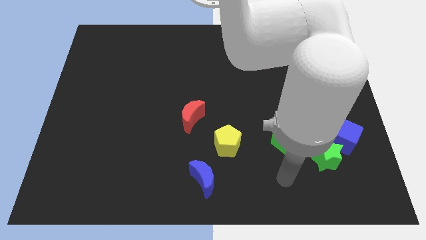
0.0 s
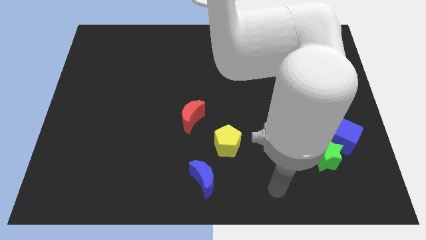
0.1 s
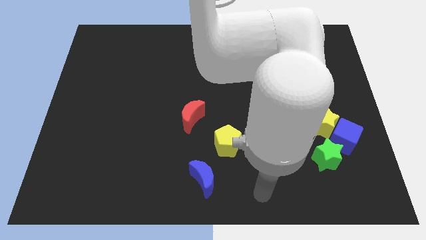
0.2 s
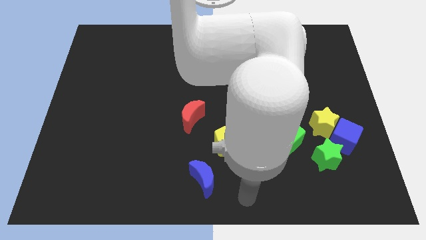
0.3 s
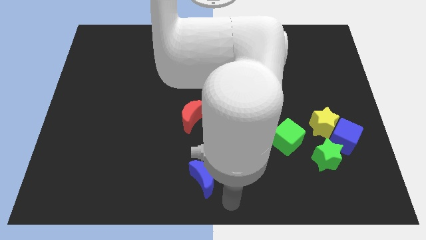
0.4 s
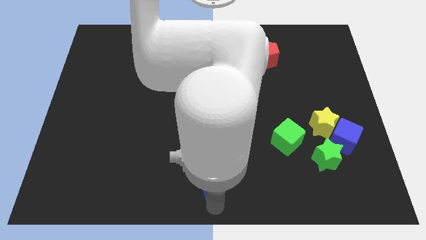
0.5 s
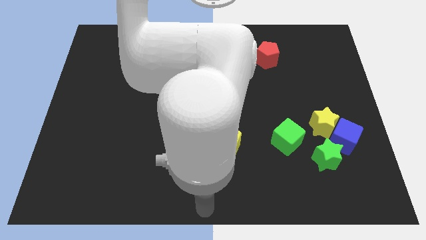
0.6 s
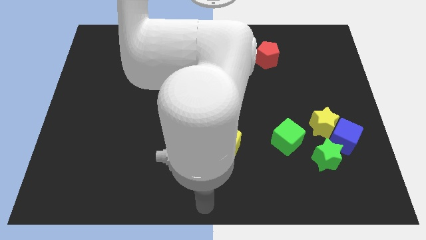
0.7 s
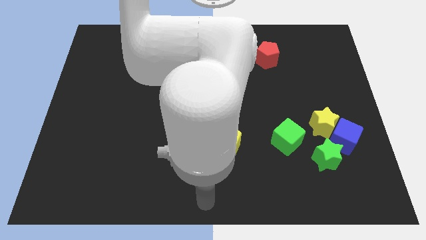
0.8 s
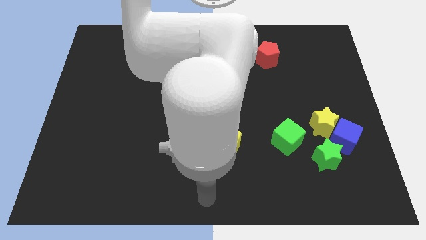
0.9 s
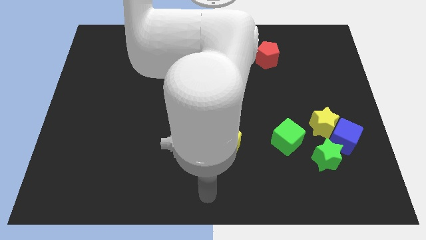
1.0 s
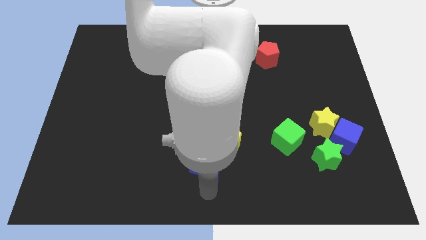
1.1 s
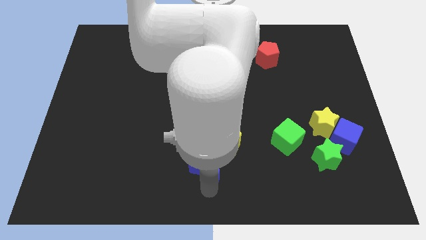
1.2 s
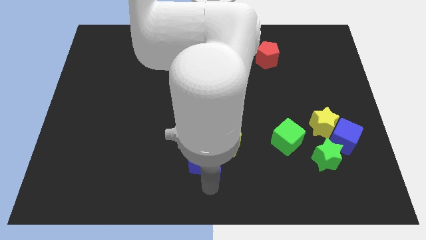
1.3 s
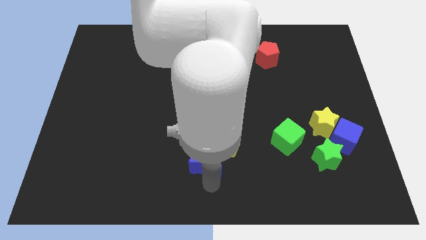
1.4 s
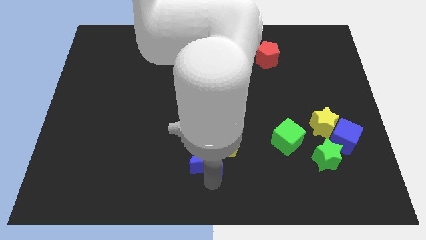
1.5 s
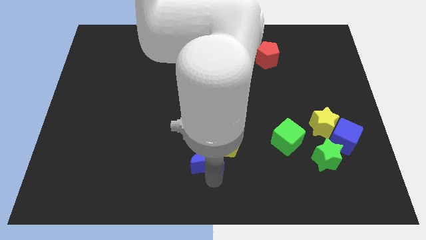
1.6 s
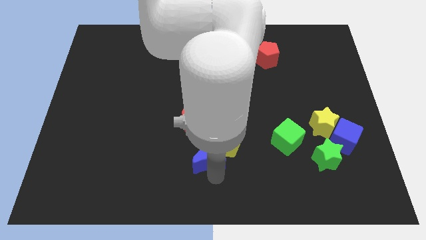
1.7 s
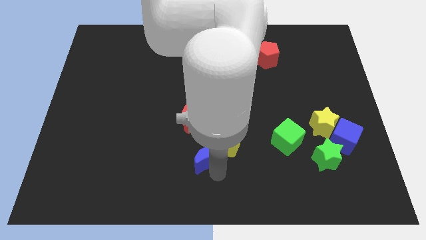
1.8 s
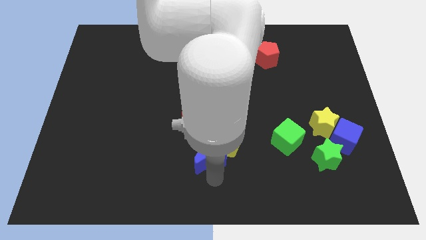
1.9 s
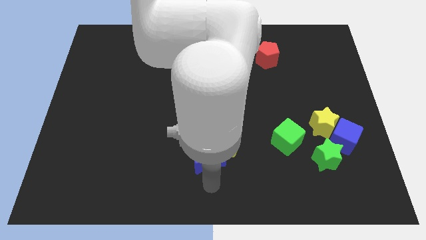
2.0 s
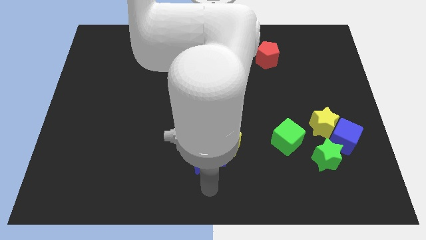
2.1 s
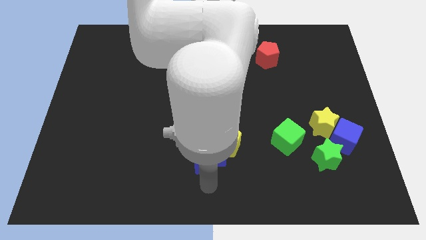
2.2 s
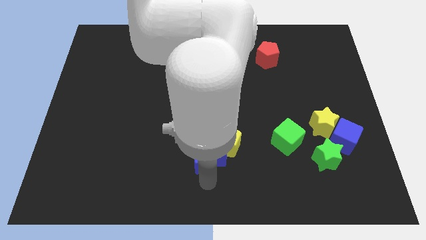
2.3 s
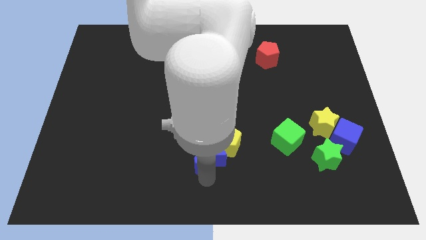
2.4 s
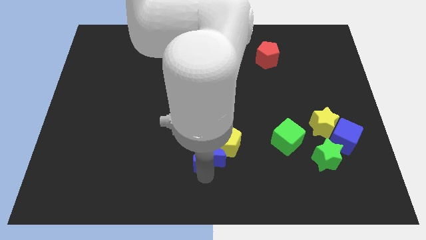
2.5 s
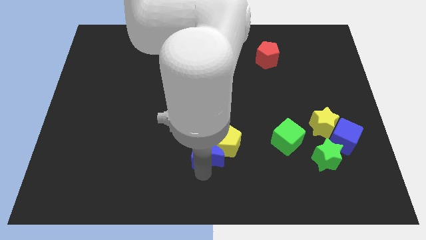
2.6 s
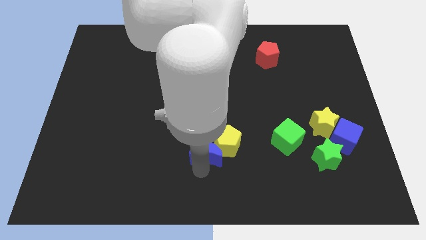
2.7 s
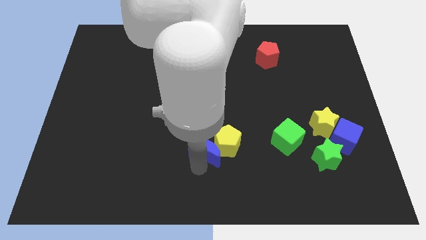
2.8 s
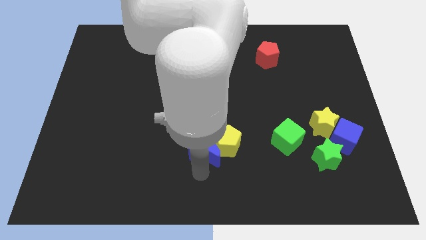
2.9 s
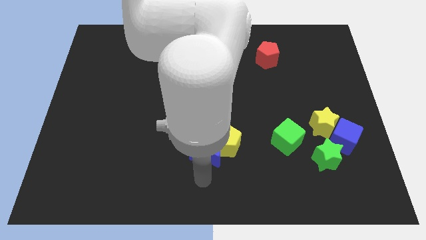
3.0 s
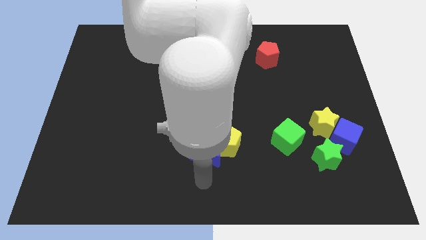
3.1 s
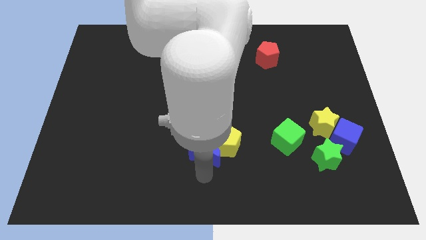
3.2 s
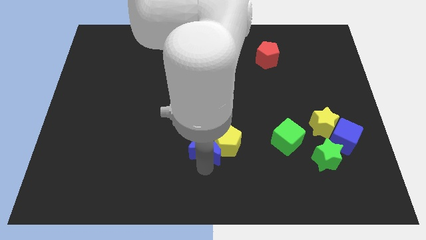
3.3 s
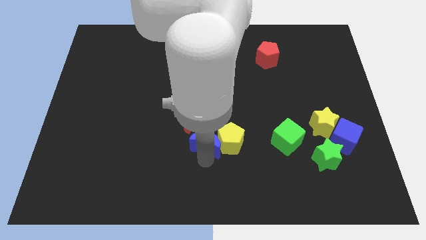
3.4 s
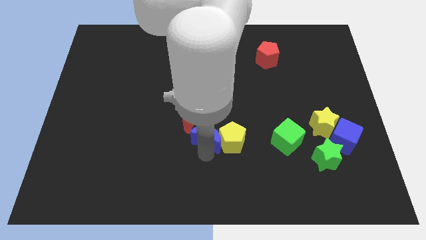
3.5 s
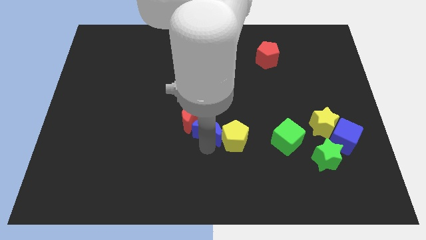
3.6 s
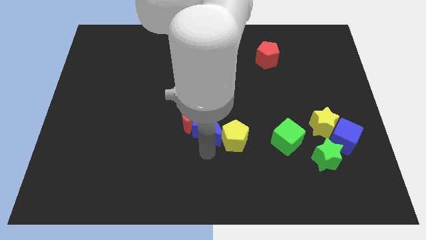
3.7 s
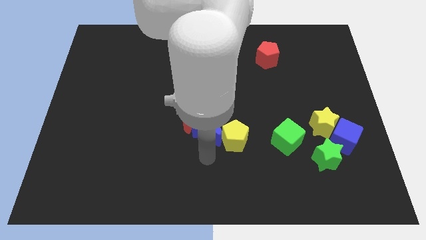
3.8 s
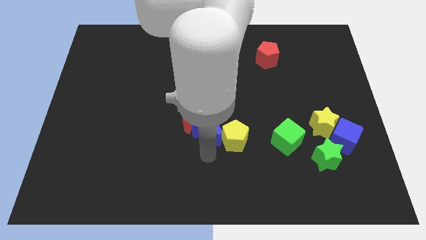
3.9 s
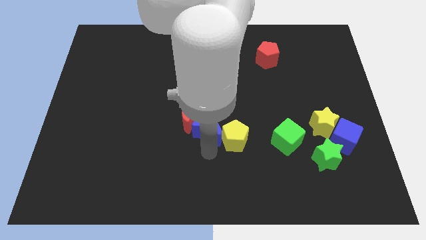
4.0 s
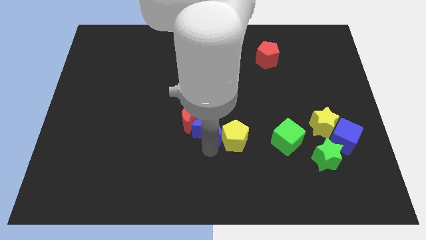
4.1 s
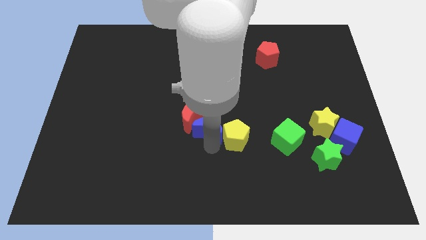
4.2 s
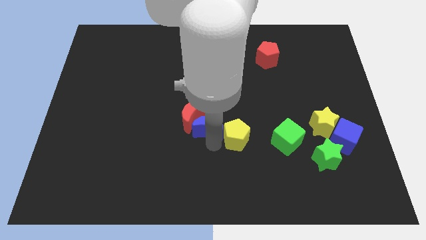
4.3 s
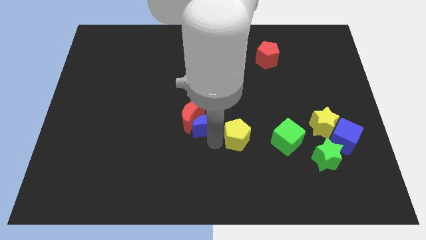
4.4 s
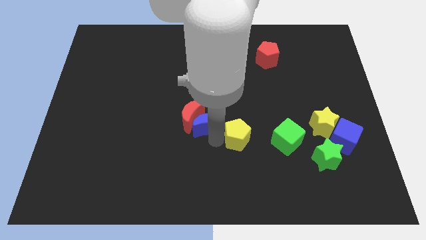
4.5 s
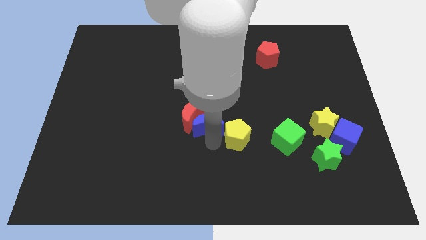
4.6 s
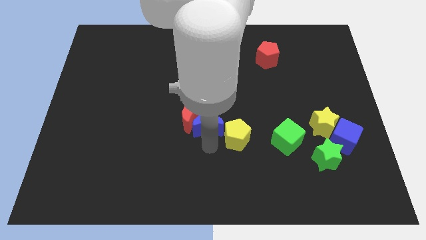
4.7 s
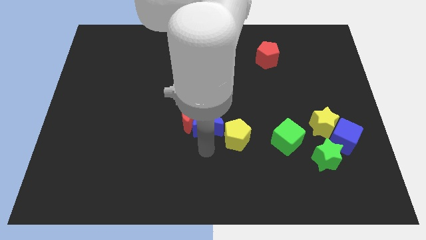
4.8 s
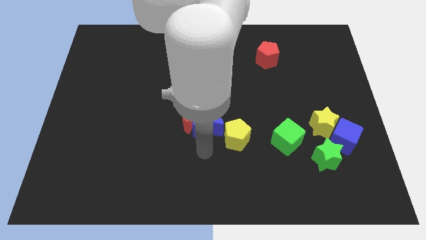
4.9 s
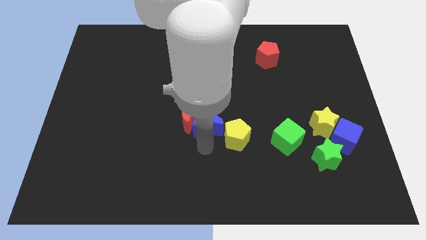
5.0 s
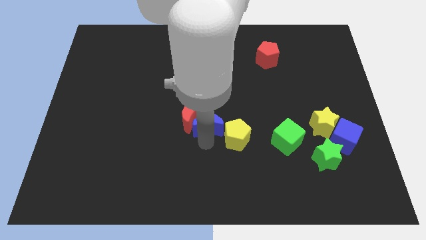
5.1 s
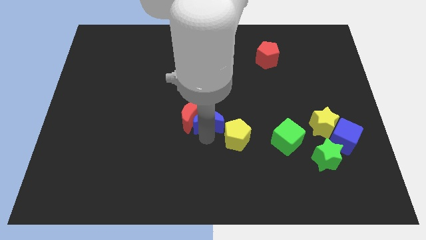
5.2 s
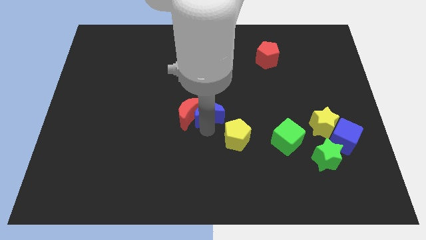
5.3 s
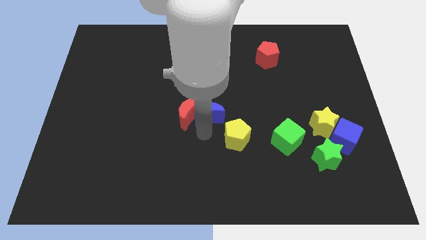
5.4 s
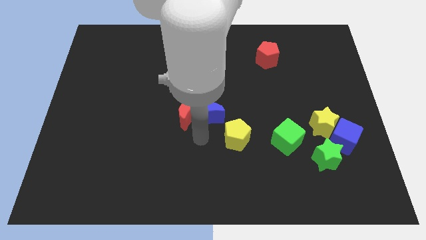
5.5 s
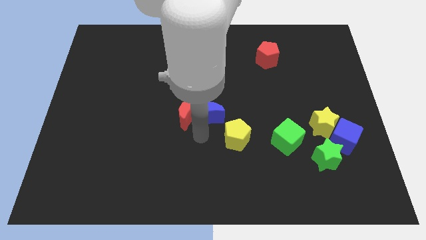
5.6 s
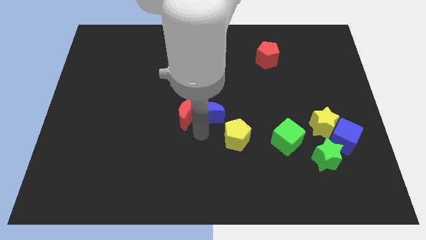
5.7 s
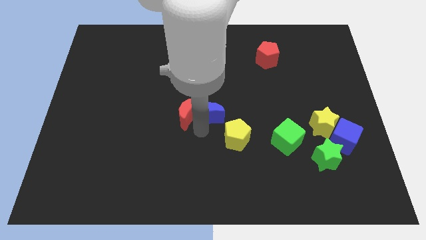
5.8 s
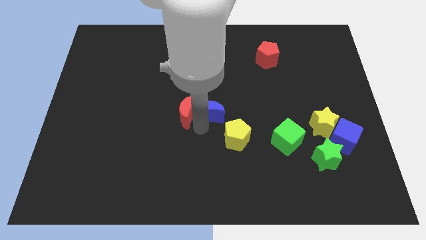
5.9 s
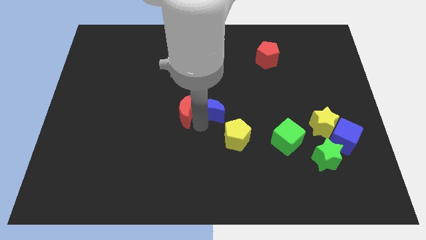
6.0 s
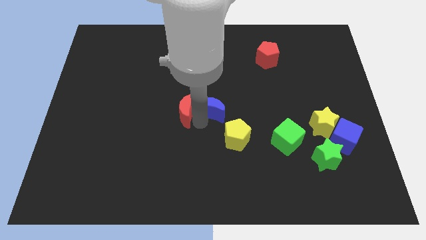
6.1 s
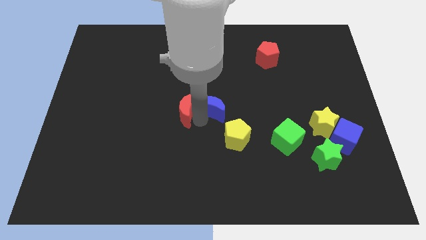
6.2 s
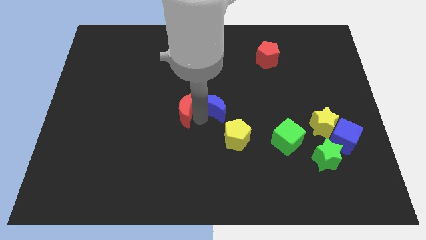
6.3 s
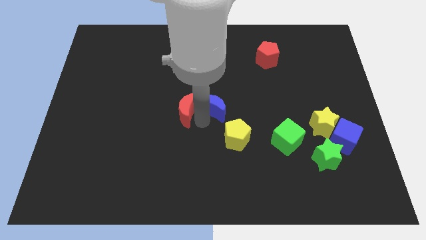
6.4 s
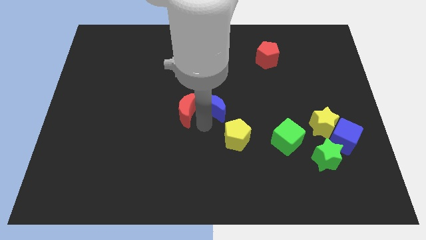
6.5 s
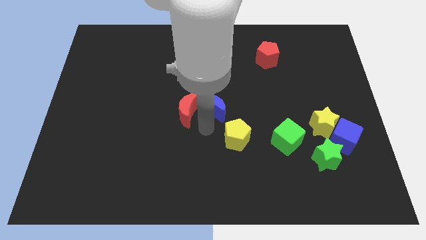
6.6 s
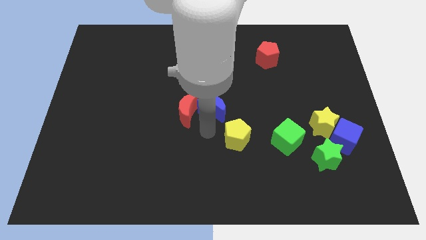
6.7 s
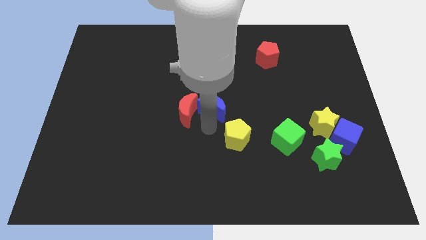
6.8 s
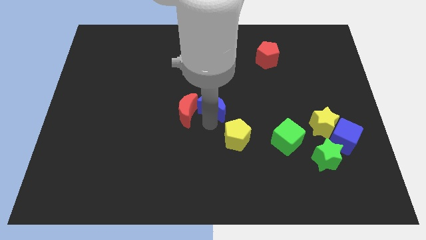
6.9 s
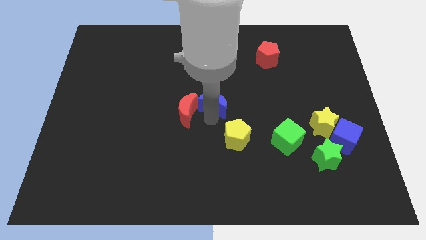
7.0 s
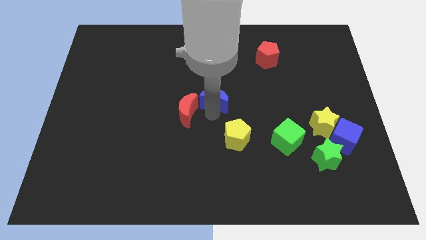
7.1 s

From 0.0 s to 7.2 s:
slide the blue moon up

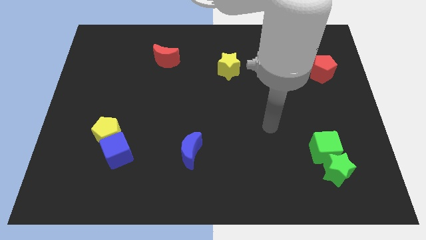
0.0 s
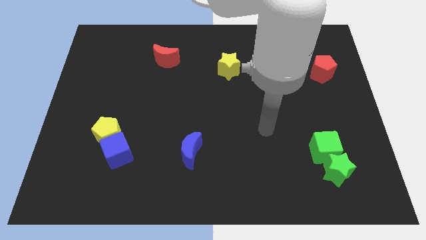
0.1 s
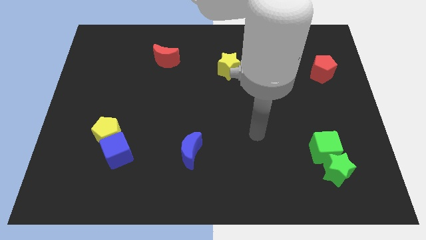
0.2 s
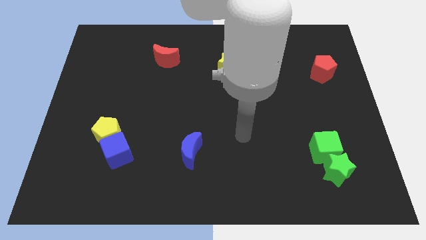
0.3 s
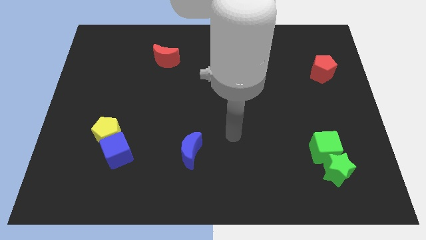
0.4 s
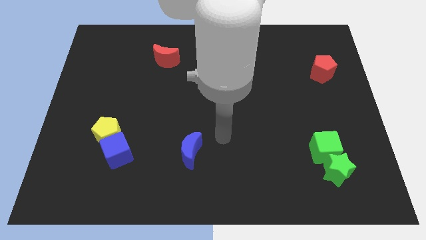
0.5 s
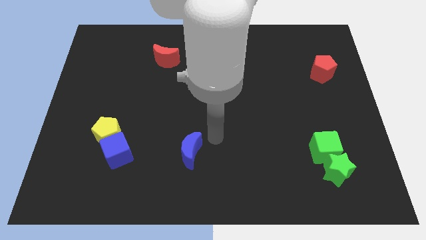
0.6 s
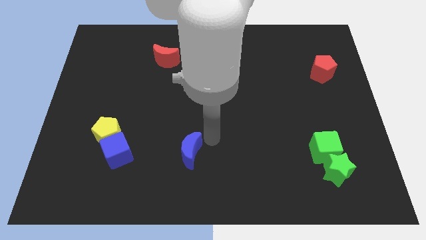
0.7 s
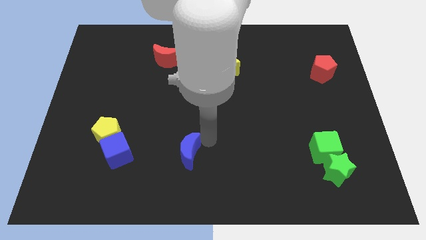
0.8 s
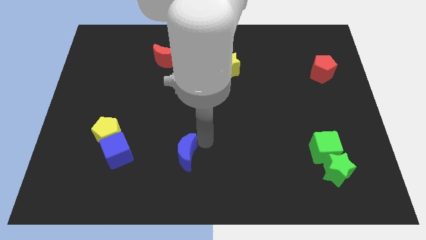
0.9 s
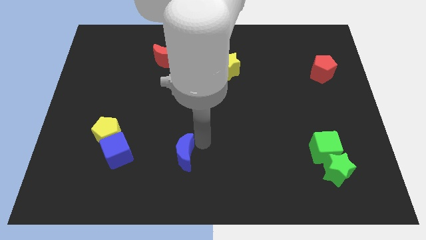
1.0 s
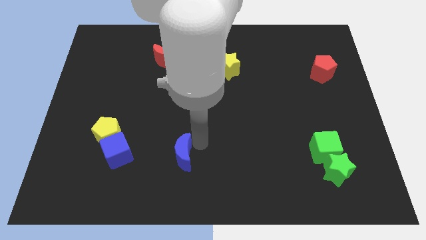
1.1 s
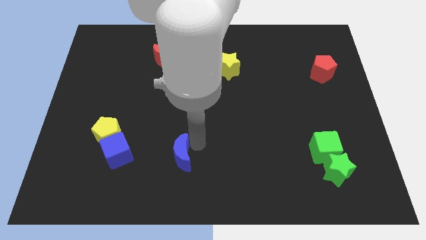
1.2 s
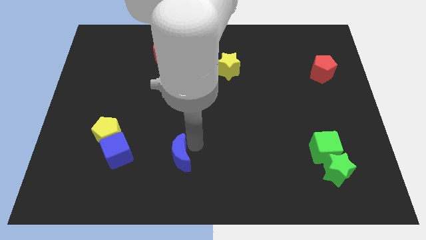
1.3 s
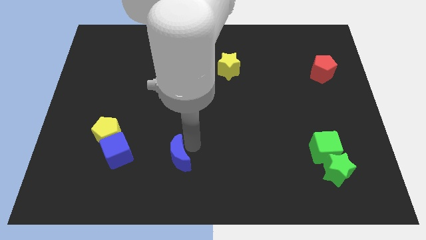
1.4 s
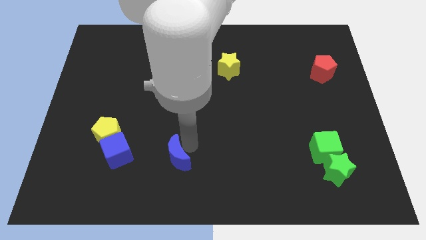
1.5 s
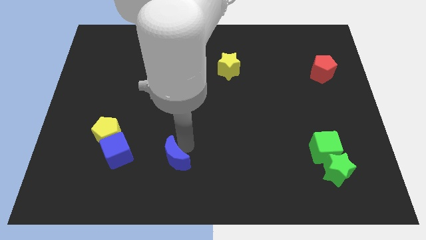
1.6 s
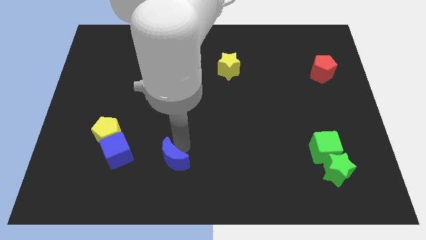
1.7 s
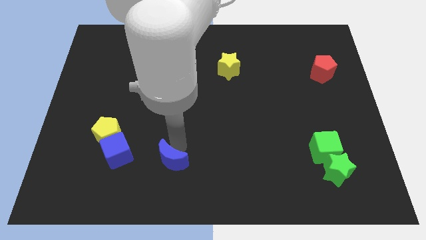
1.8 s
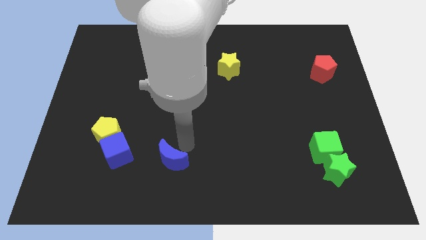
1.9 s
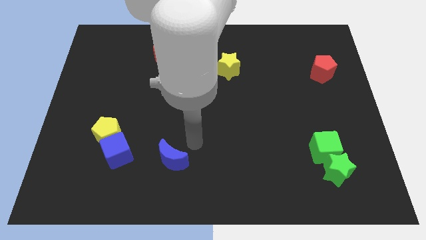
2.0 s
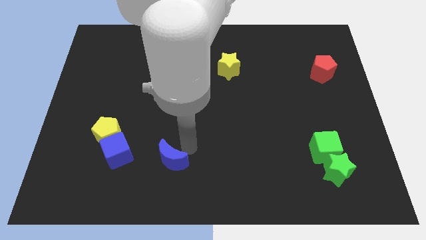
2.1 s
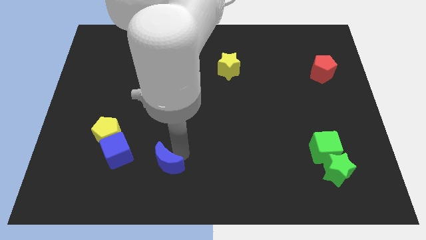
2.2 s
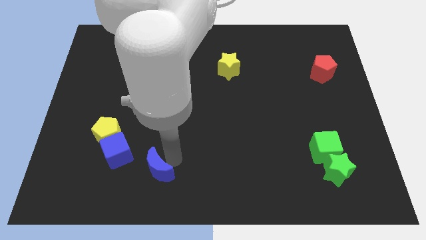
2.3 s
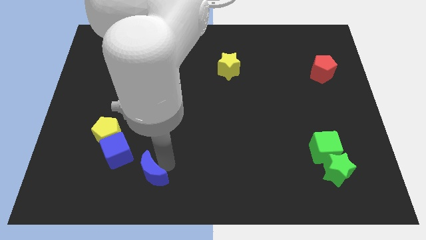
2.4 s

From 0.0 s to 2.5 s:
move the blue moon to the left a bit
